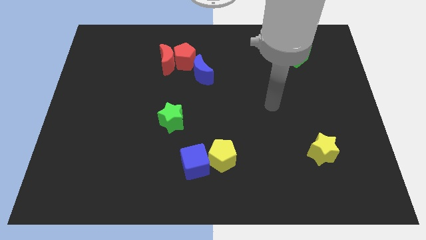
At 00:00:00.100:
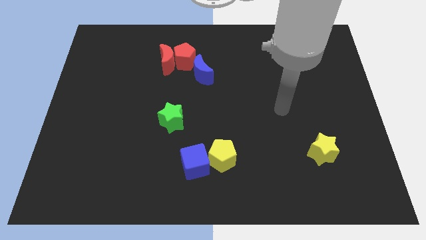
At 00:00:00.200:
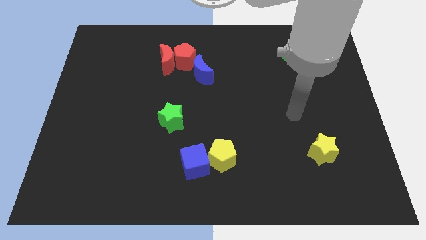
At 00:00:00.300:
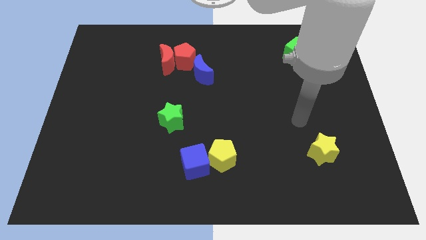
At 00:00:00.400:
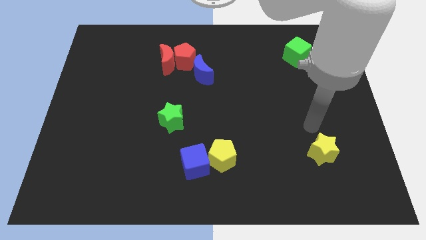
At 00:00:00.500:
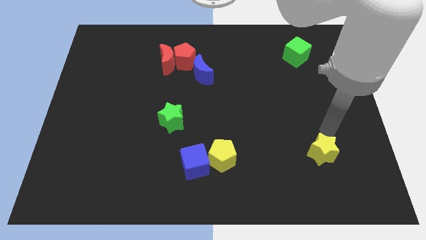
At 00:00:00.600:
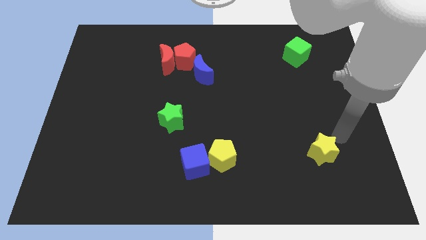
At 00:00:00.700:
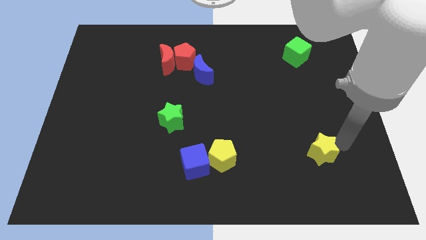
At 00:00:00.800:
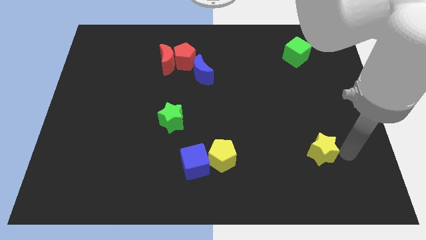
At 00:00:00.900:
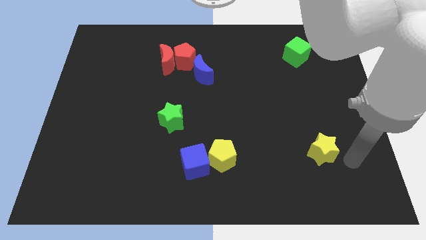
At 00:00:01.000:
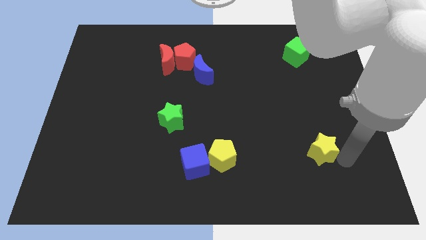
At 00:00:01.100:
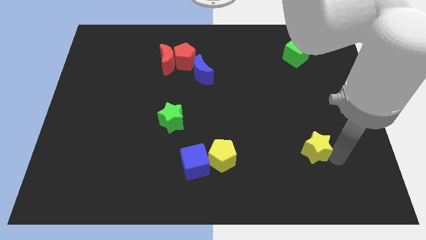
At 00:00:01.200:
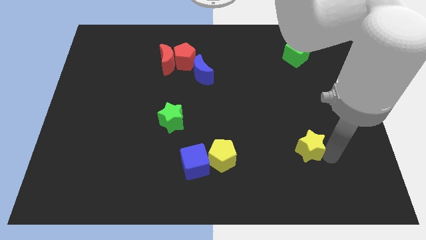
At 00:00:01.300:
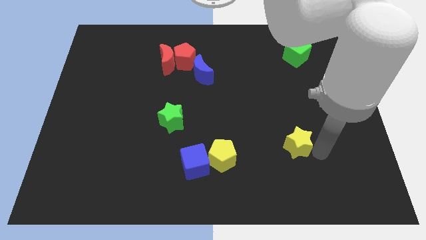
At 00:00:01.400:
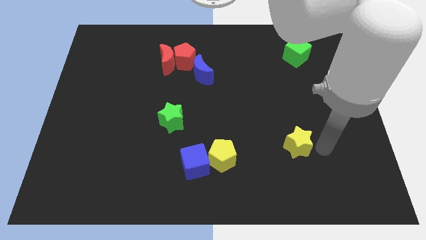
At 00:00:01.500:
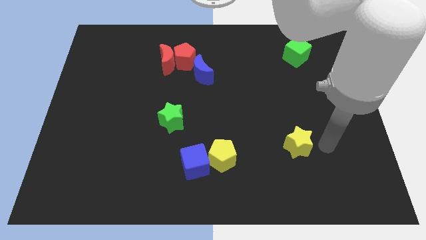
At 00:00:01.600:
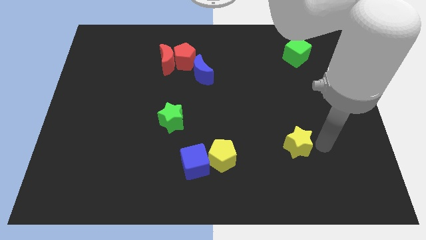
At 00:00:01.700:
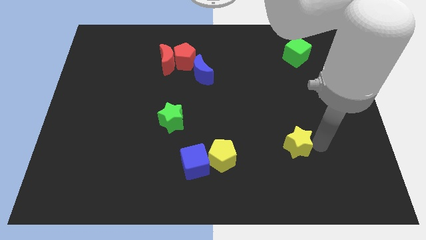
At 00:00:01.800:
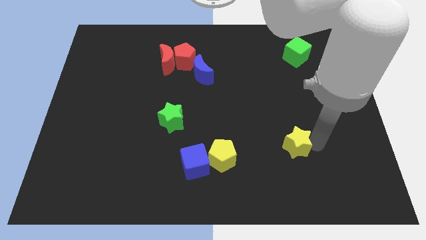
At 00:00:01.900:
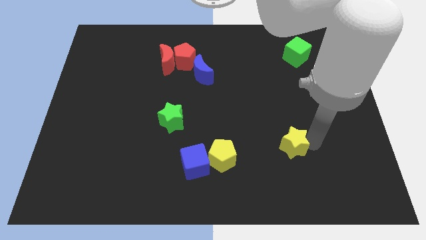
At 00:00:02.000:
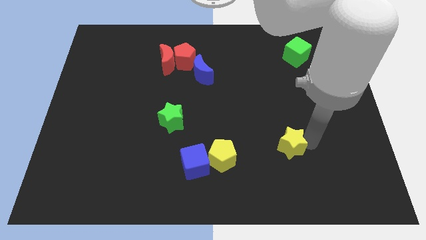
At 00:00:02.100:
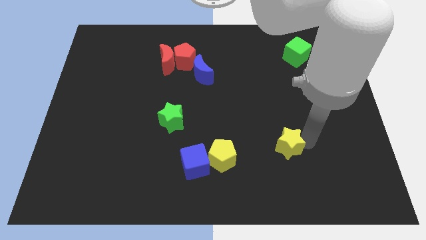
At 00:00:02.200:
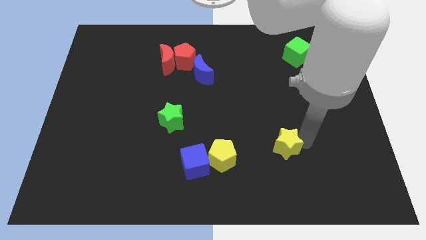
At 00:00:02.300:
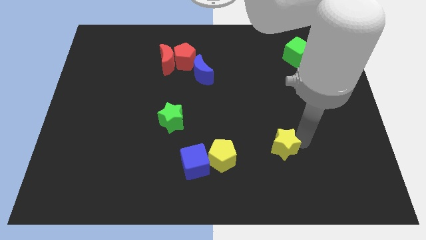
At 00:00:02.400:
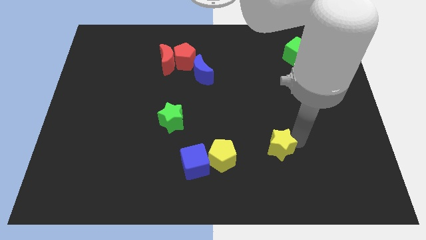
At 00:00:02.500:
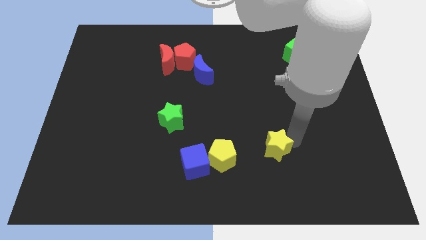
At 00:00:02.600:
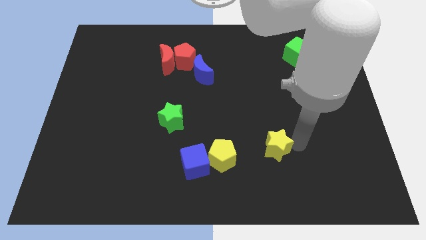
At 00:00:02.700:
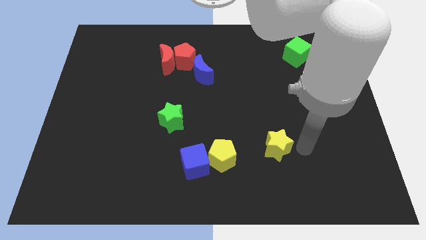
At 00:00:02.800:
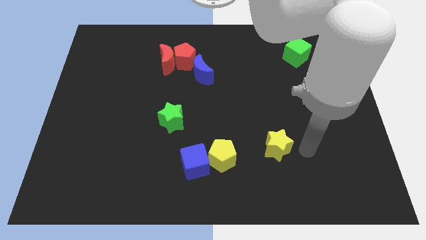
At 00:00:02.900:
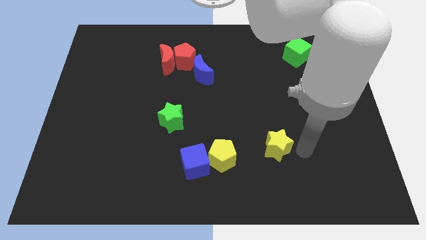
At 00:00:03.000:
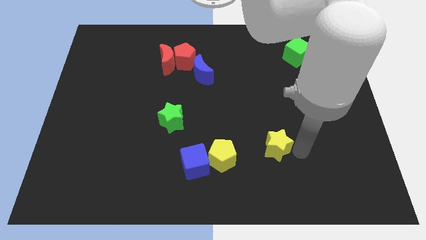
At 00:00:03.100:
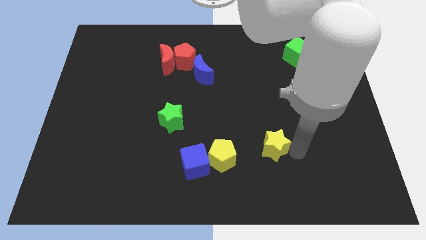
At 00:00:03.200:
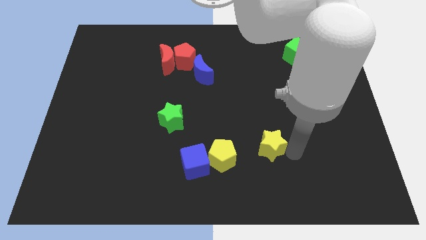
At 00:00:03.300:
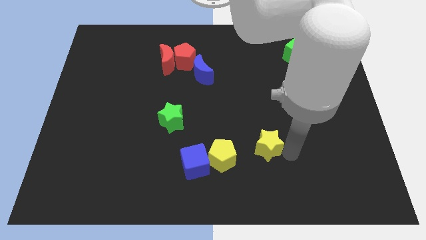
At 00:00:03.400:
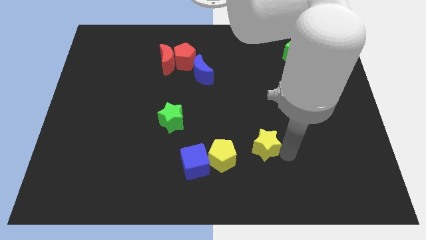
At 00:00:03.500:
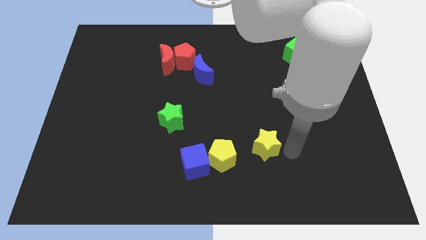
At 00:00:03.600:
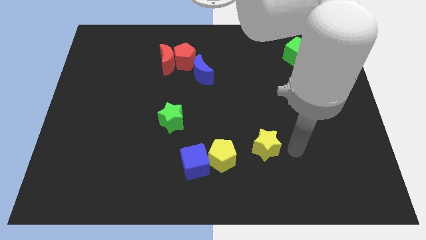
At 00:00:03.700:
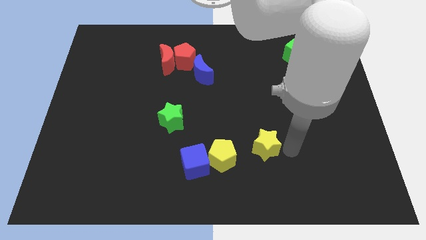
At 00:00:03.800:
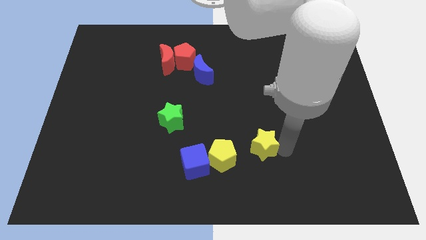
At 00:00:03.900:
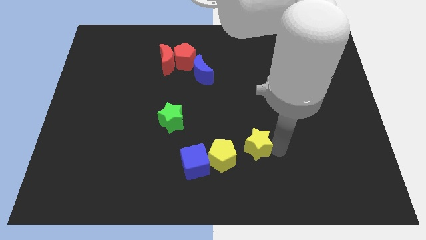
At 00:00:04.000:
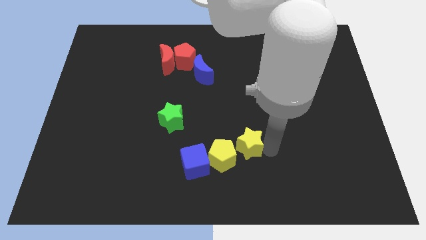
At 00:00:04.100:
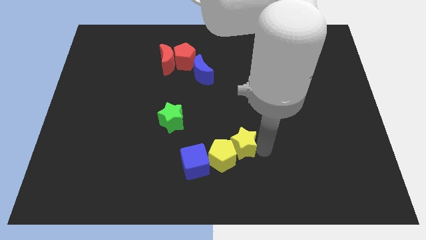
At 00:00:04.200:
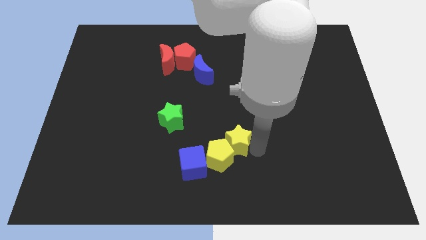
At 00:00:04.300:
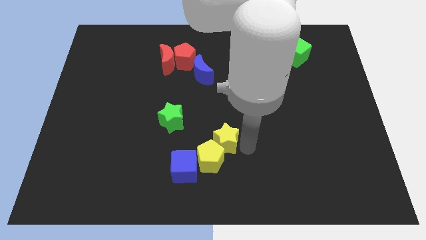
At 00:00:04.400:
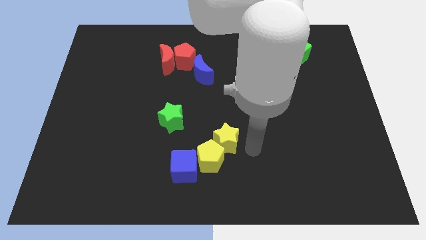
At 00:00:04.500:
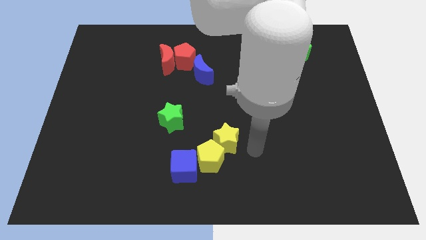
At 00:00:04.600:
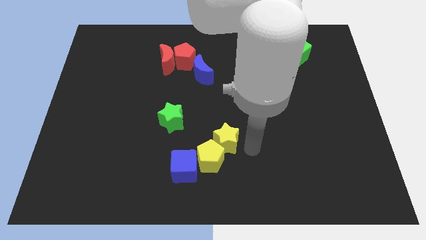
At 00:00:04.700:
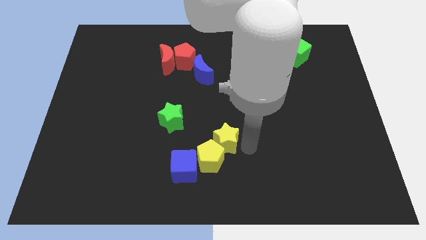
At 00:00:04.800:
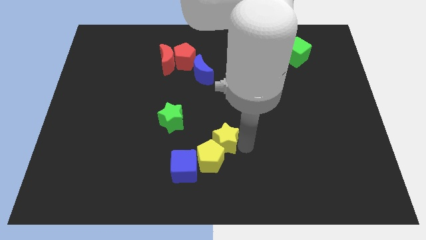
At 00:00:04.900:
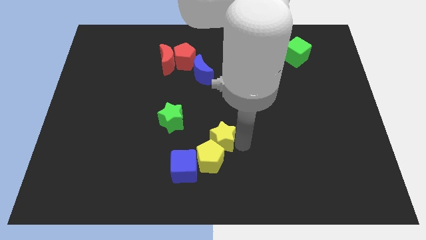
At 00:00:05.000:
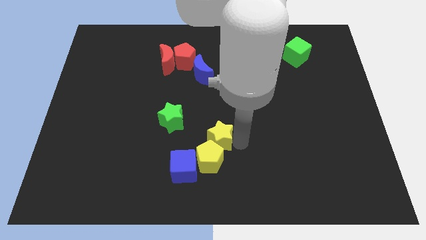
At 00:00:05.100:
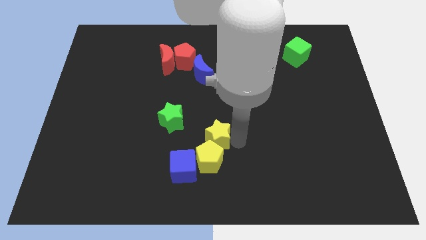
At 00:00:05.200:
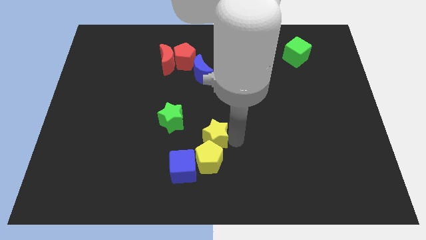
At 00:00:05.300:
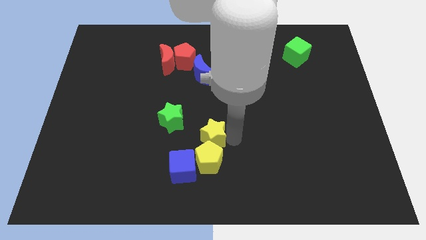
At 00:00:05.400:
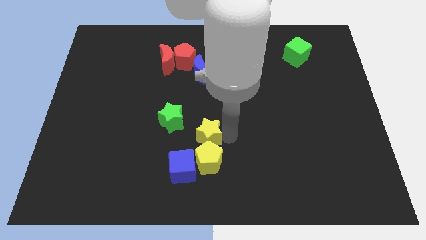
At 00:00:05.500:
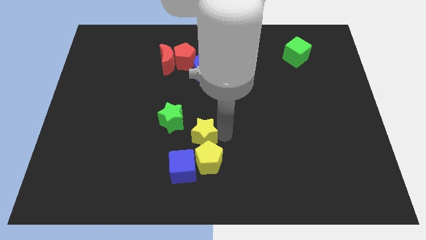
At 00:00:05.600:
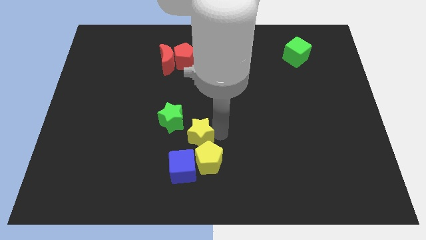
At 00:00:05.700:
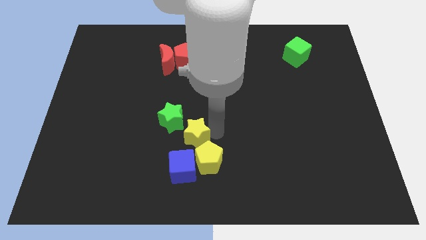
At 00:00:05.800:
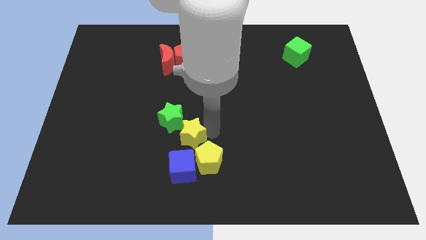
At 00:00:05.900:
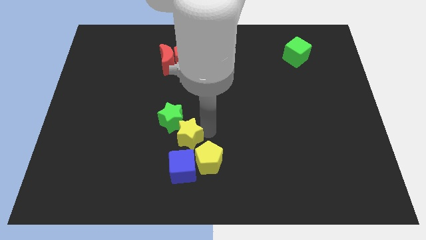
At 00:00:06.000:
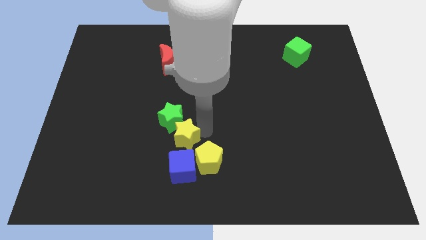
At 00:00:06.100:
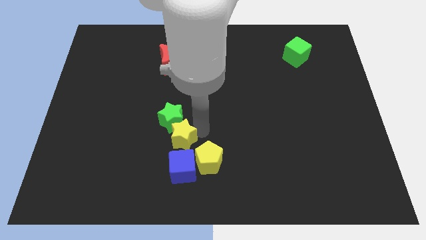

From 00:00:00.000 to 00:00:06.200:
push the yellow star to the top left side of the blue cube

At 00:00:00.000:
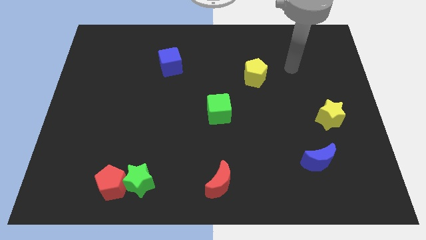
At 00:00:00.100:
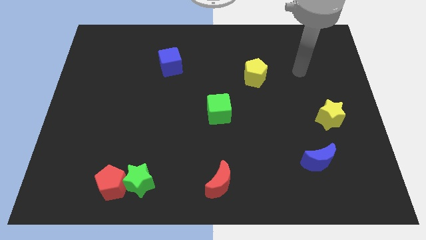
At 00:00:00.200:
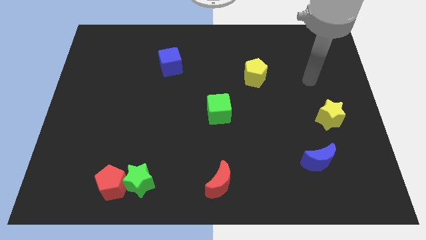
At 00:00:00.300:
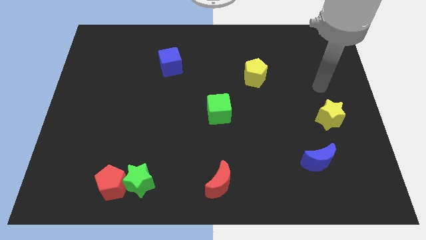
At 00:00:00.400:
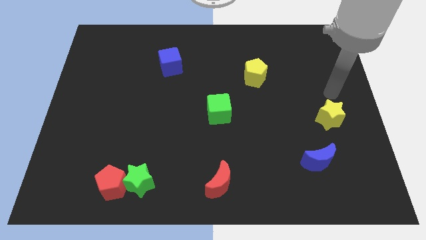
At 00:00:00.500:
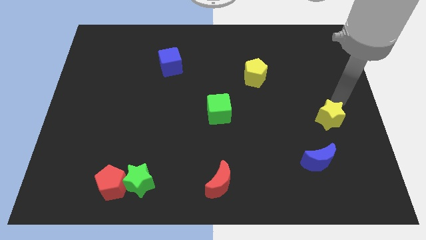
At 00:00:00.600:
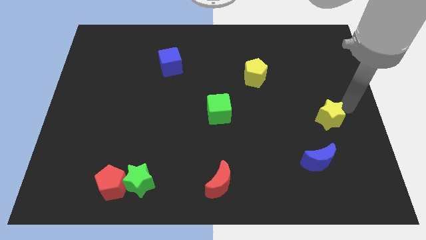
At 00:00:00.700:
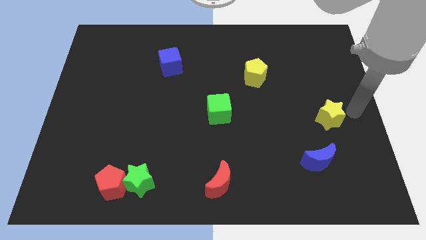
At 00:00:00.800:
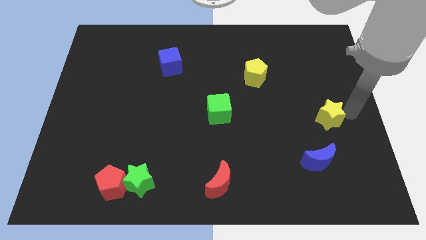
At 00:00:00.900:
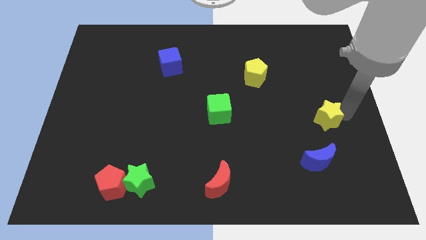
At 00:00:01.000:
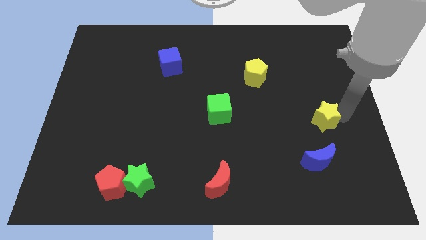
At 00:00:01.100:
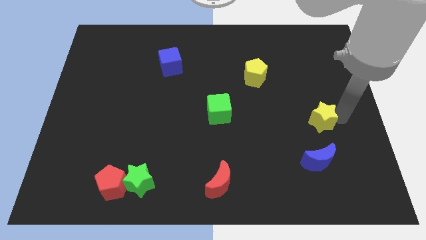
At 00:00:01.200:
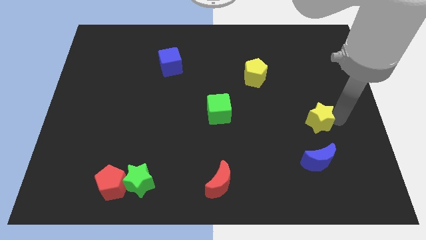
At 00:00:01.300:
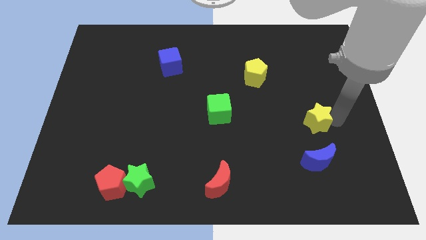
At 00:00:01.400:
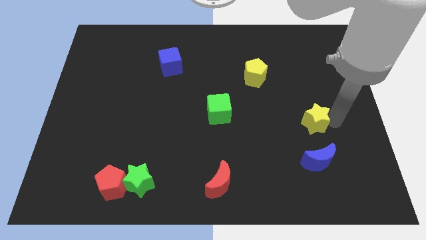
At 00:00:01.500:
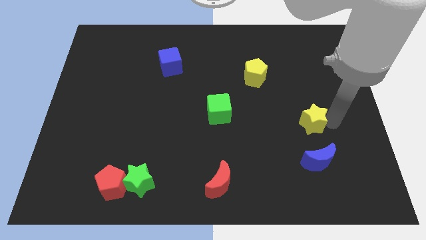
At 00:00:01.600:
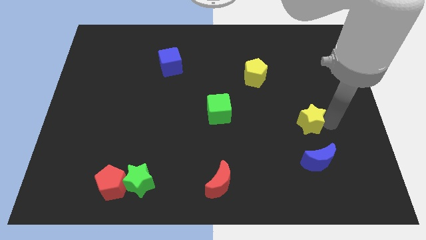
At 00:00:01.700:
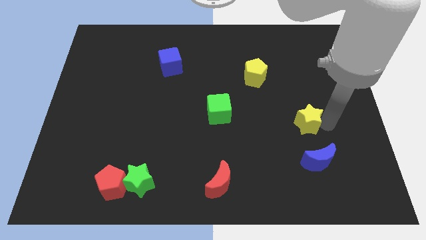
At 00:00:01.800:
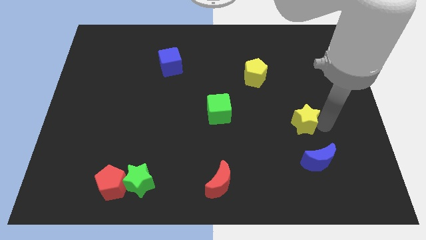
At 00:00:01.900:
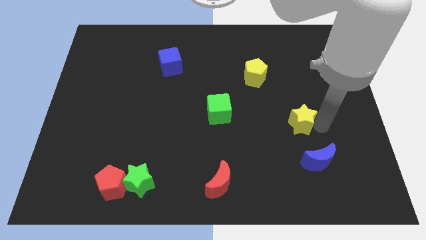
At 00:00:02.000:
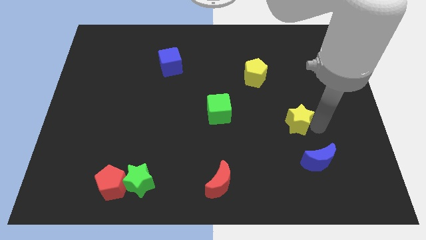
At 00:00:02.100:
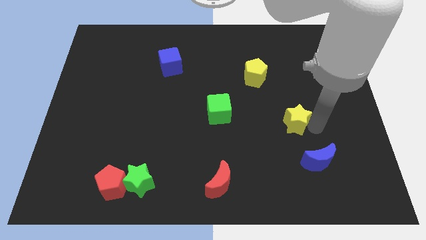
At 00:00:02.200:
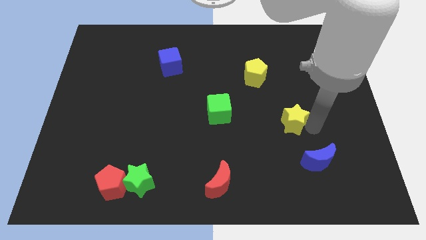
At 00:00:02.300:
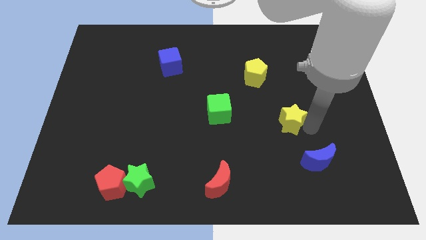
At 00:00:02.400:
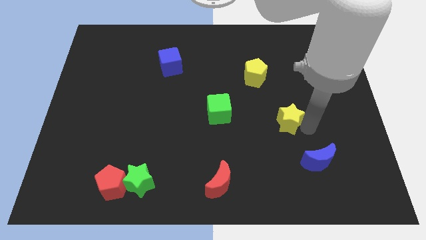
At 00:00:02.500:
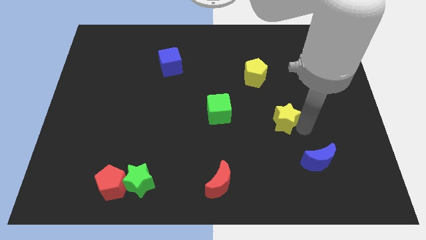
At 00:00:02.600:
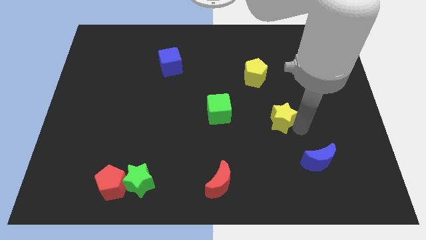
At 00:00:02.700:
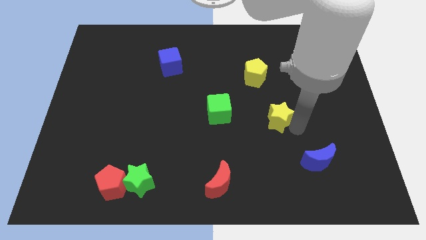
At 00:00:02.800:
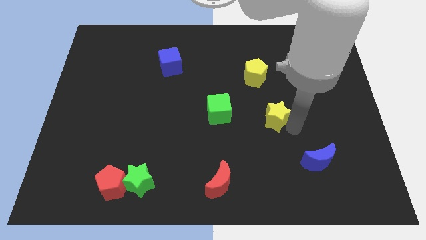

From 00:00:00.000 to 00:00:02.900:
move the yellow star to the bottom of the yellow pentagon
